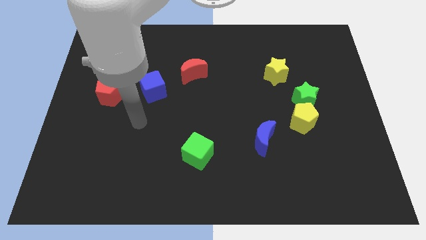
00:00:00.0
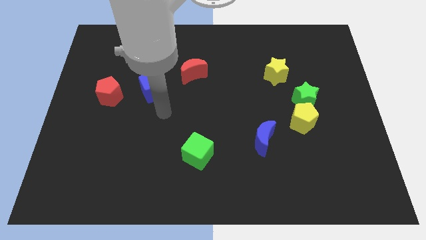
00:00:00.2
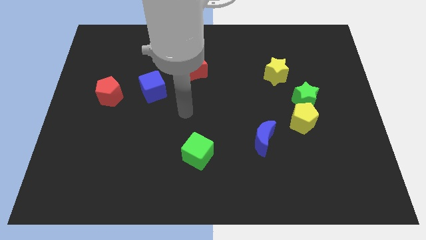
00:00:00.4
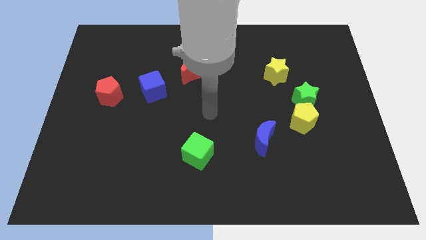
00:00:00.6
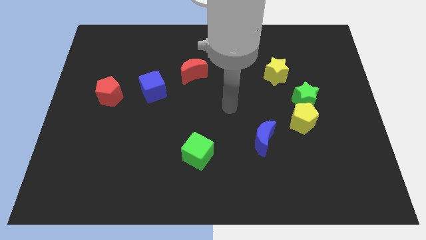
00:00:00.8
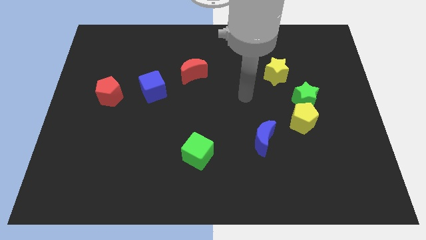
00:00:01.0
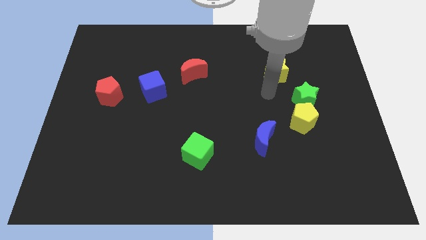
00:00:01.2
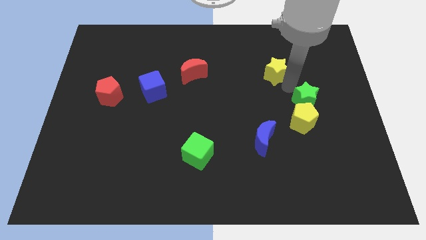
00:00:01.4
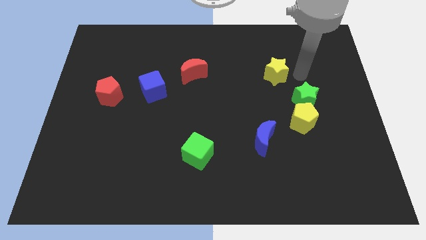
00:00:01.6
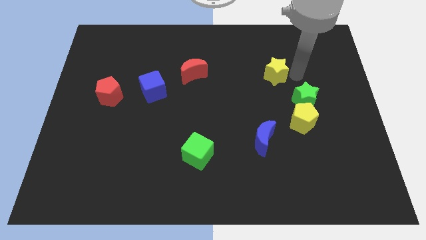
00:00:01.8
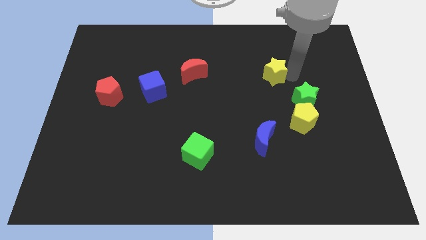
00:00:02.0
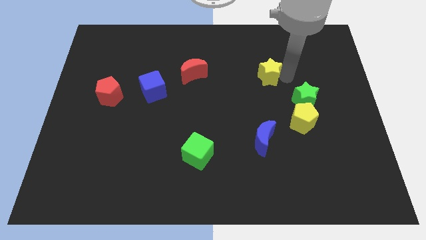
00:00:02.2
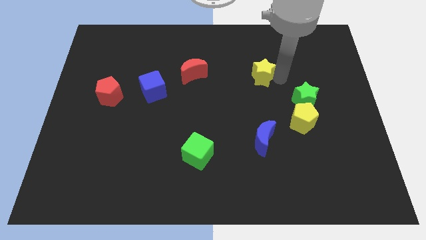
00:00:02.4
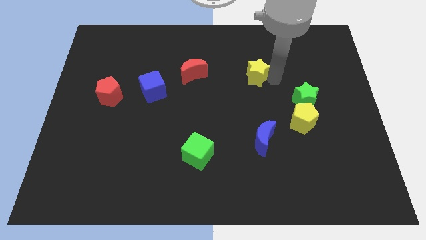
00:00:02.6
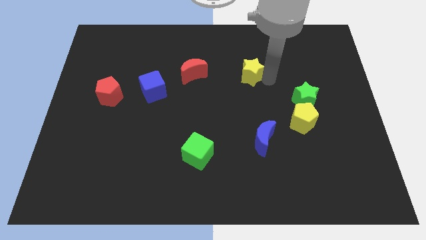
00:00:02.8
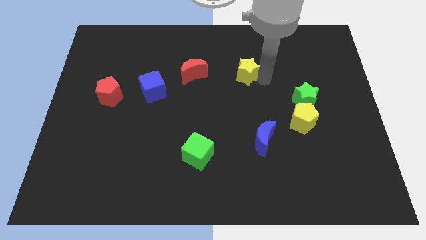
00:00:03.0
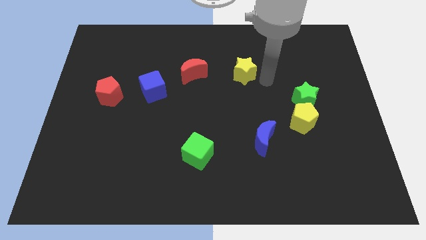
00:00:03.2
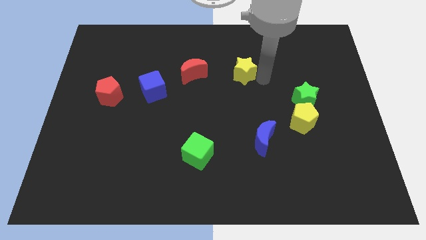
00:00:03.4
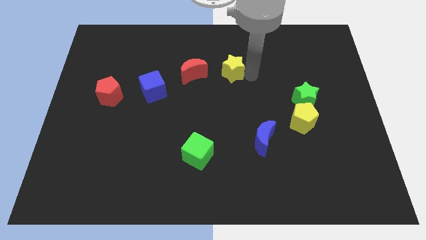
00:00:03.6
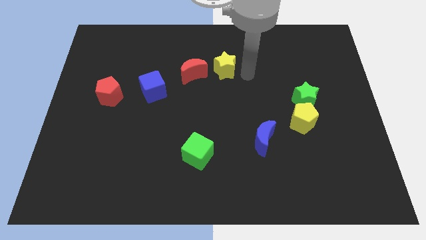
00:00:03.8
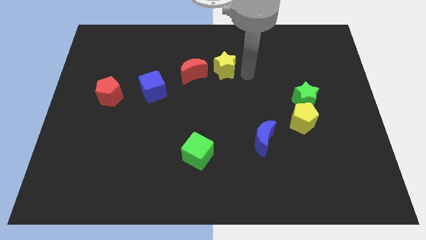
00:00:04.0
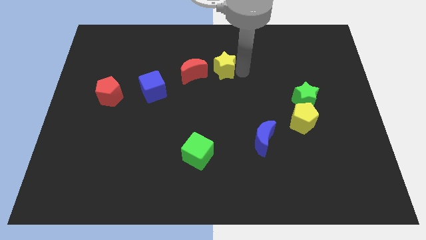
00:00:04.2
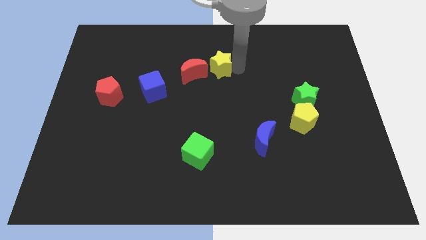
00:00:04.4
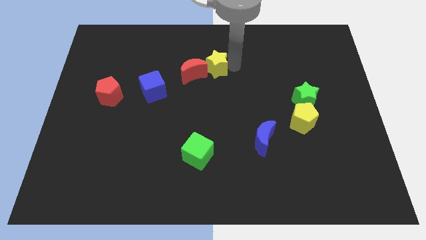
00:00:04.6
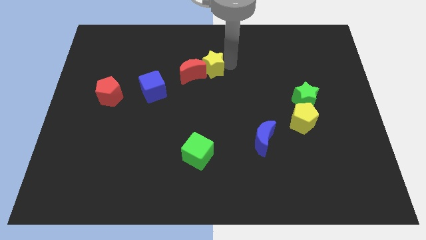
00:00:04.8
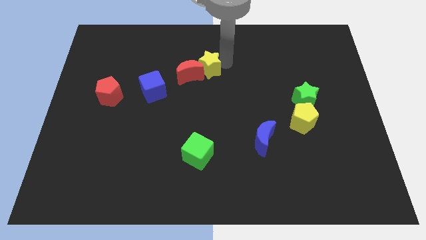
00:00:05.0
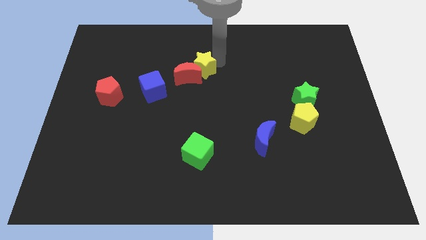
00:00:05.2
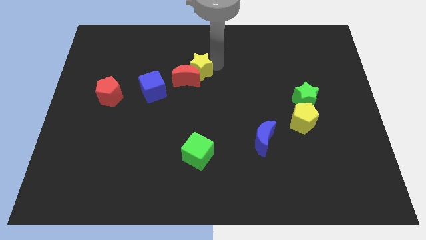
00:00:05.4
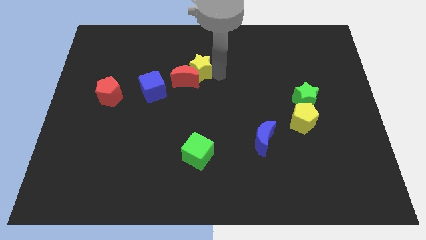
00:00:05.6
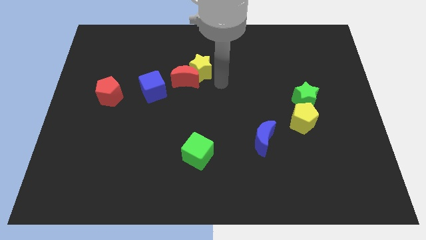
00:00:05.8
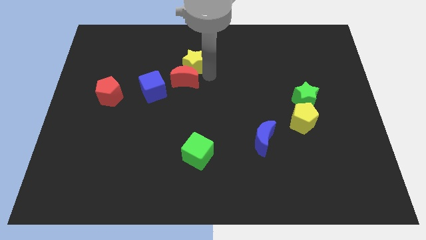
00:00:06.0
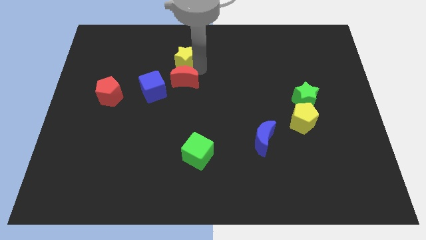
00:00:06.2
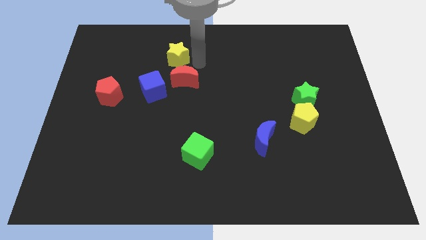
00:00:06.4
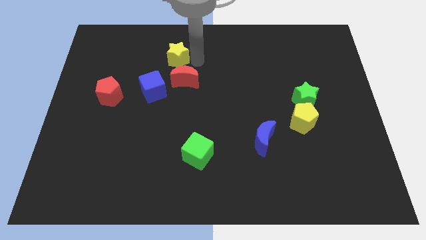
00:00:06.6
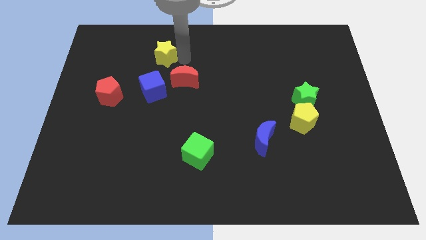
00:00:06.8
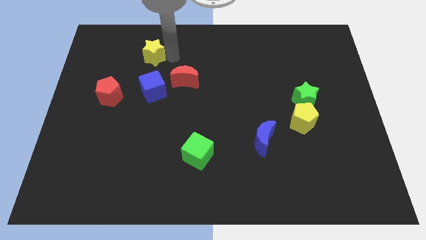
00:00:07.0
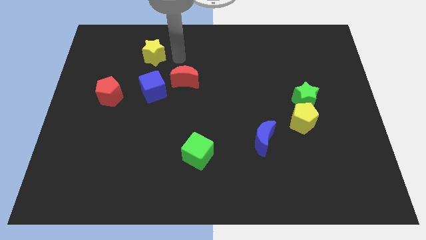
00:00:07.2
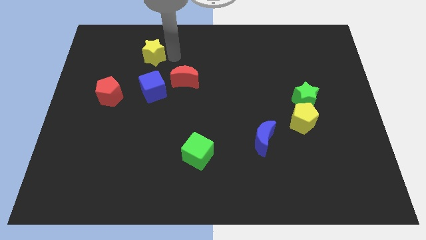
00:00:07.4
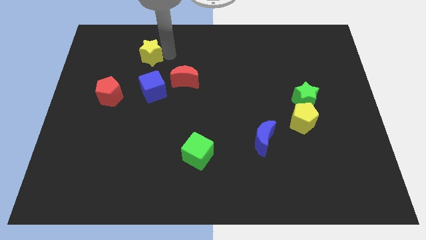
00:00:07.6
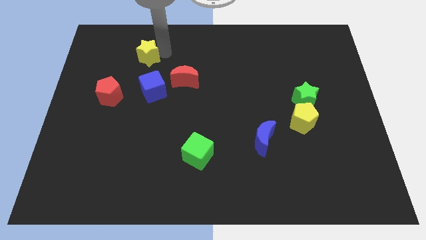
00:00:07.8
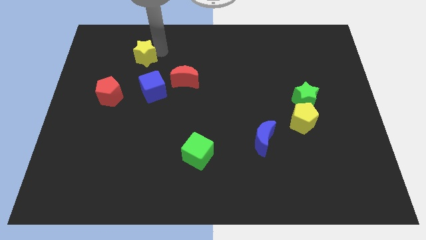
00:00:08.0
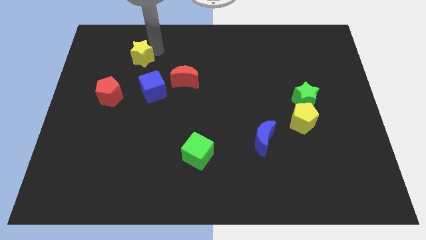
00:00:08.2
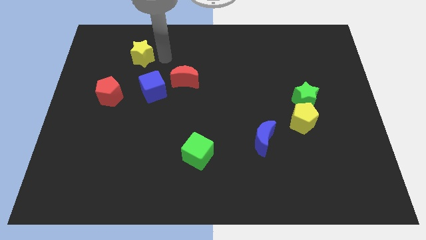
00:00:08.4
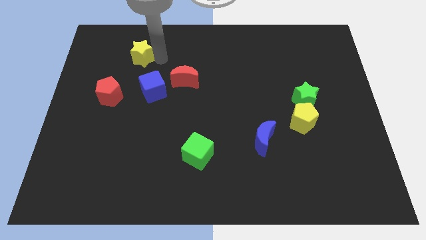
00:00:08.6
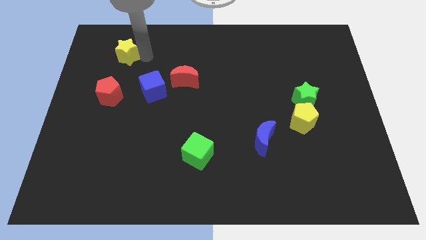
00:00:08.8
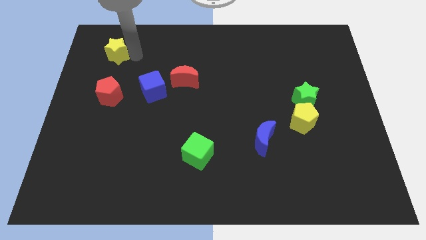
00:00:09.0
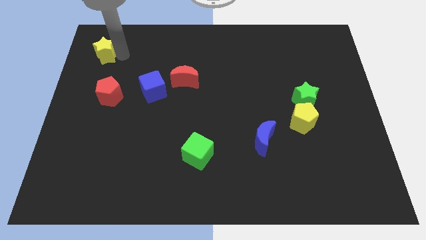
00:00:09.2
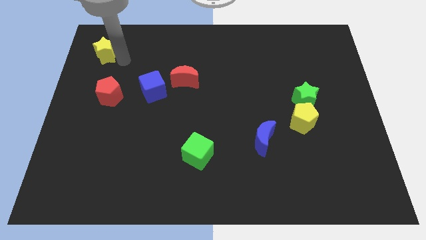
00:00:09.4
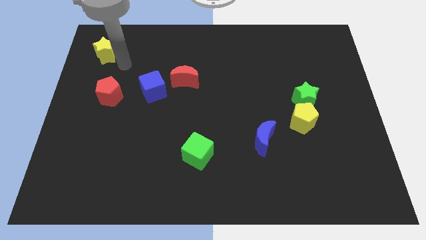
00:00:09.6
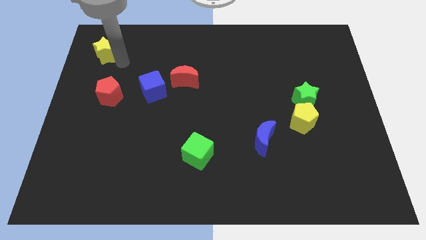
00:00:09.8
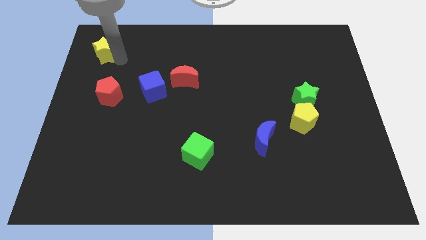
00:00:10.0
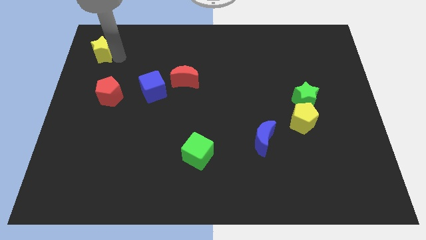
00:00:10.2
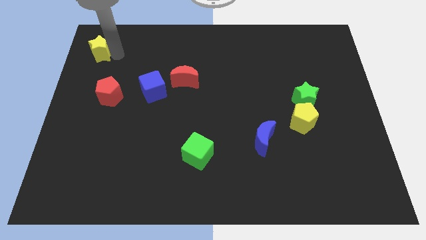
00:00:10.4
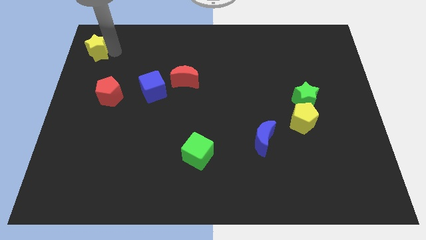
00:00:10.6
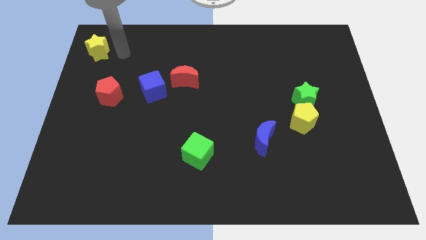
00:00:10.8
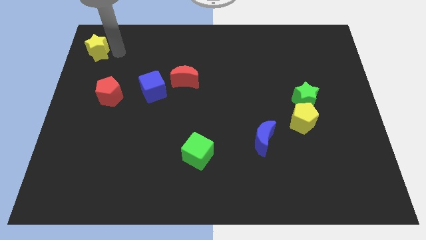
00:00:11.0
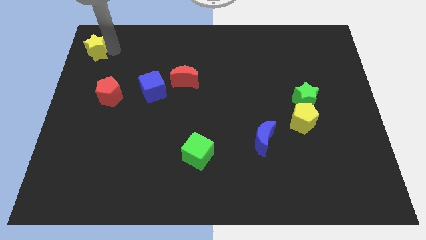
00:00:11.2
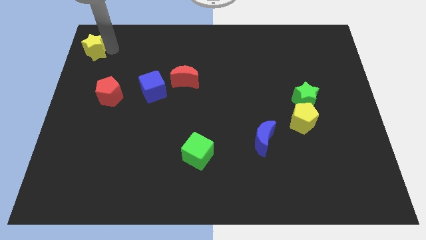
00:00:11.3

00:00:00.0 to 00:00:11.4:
put the yellow star to the top left of the board

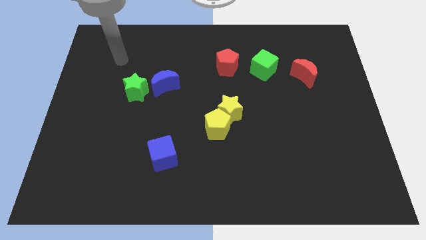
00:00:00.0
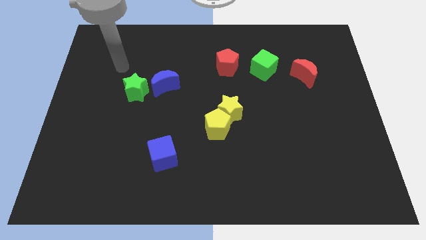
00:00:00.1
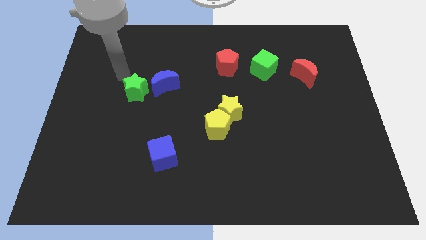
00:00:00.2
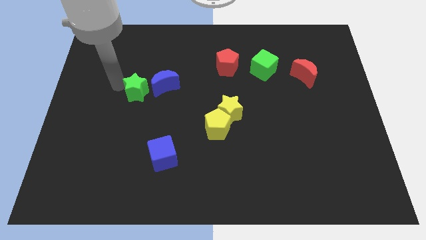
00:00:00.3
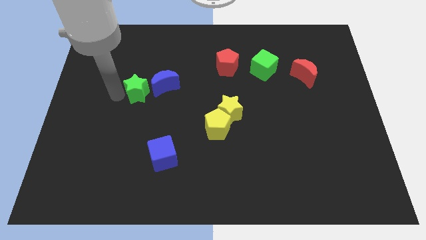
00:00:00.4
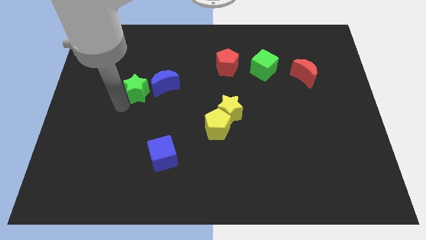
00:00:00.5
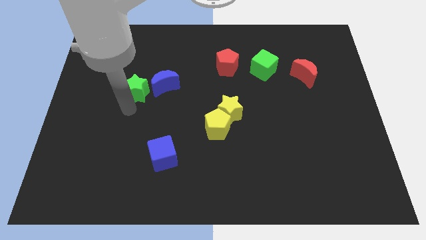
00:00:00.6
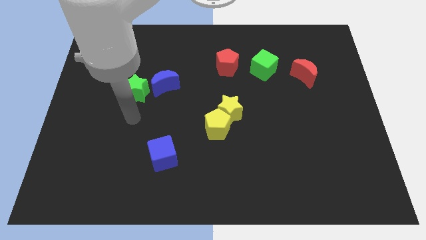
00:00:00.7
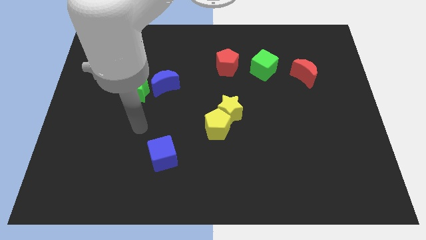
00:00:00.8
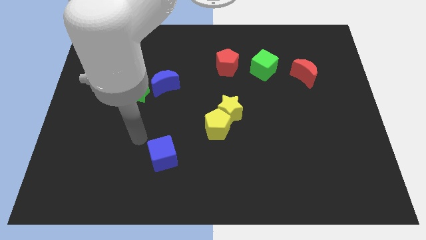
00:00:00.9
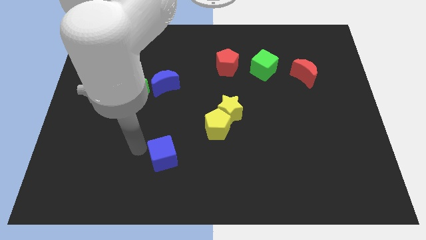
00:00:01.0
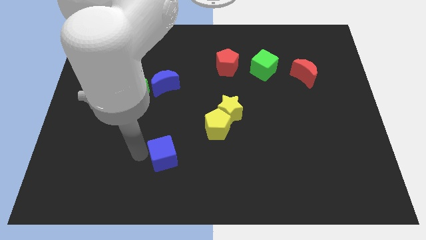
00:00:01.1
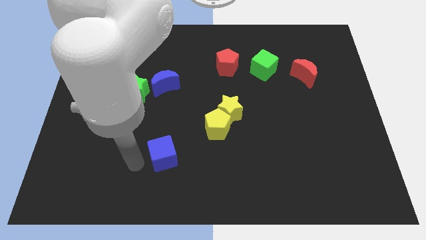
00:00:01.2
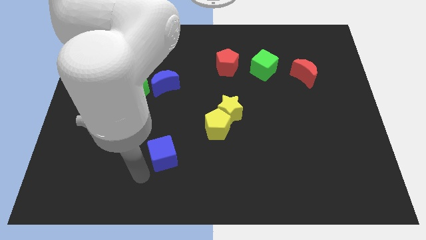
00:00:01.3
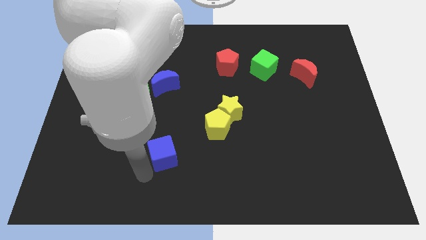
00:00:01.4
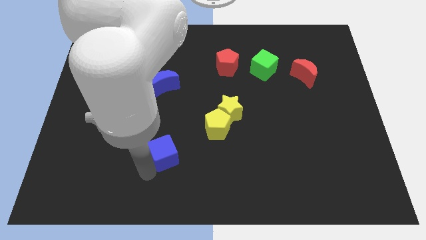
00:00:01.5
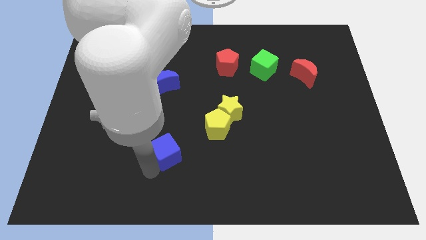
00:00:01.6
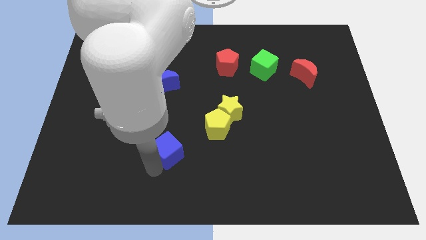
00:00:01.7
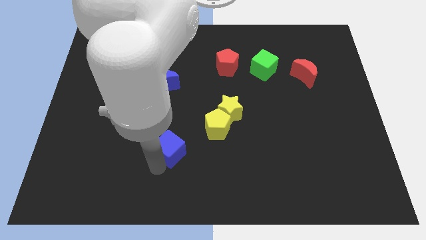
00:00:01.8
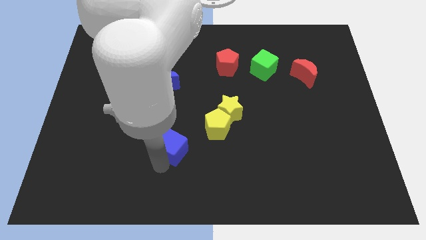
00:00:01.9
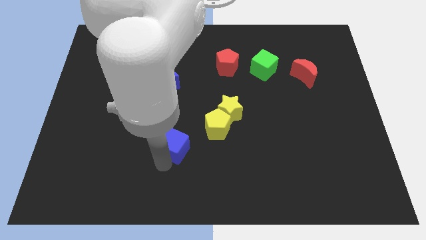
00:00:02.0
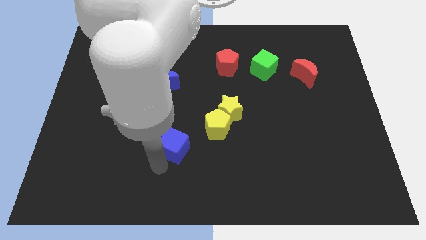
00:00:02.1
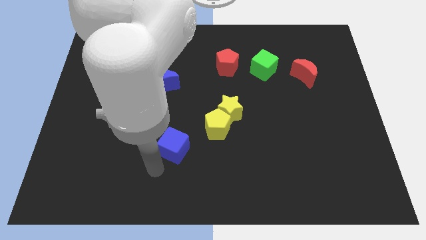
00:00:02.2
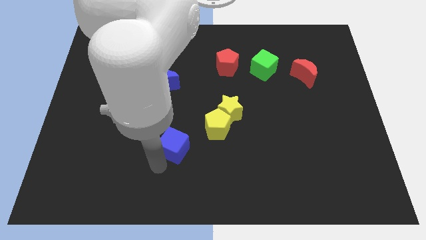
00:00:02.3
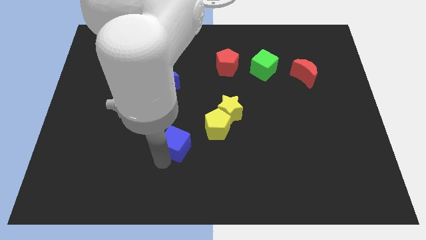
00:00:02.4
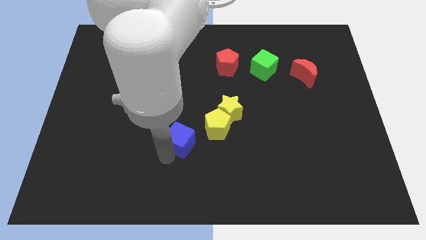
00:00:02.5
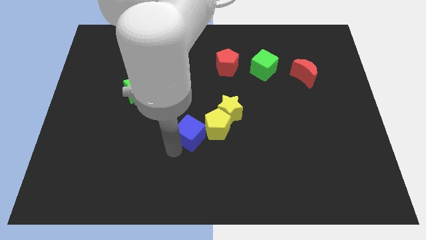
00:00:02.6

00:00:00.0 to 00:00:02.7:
push the blue cube to the center
